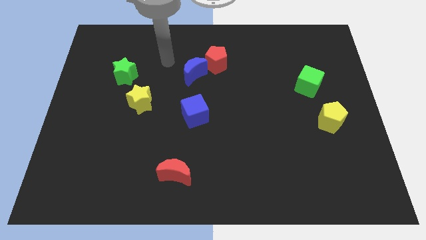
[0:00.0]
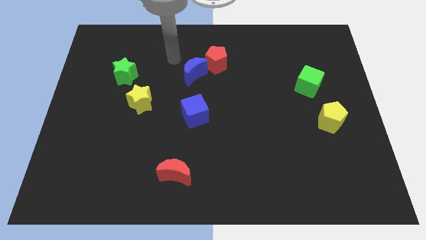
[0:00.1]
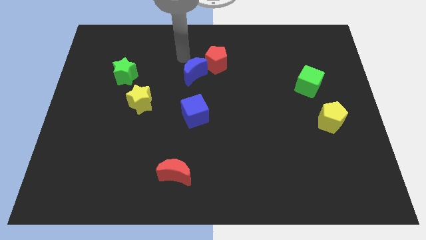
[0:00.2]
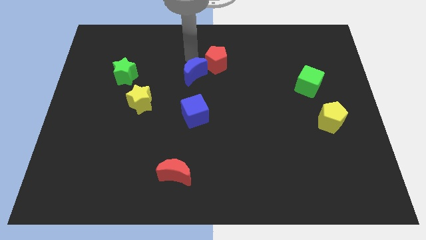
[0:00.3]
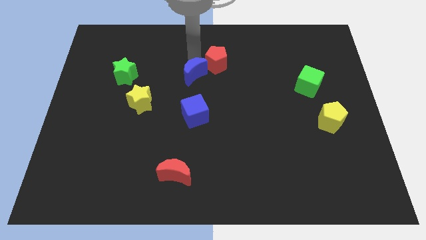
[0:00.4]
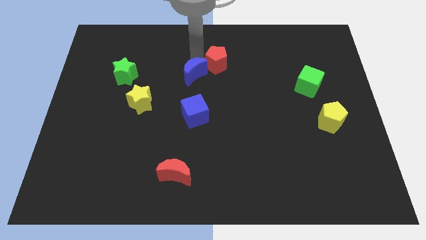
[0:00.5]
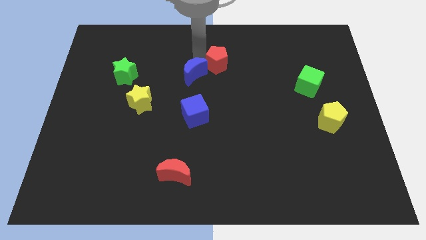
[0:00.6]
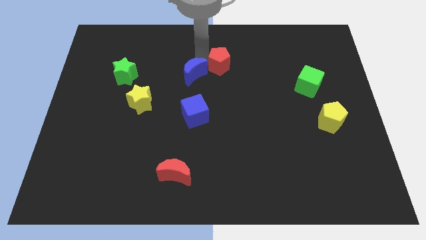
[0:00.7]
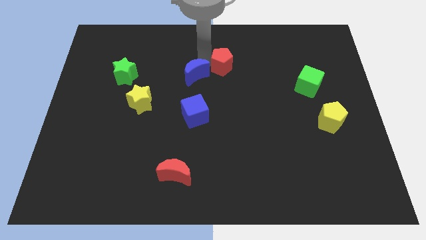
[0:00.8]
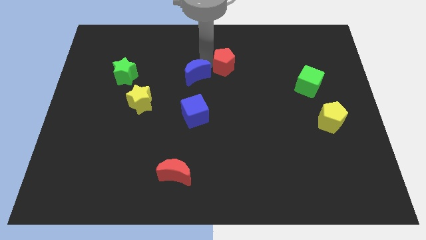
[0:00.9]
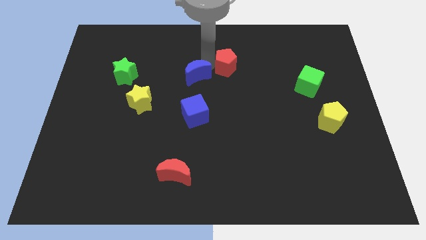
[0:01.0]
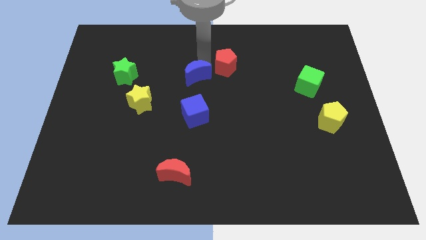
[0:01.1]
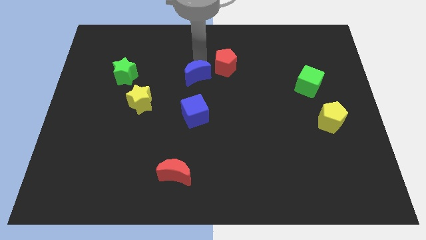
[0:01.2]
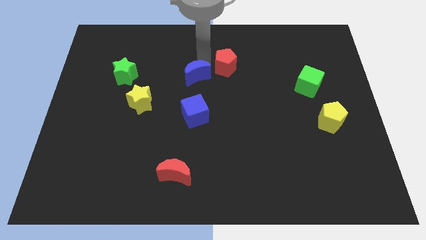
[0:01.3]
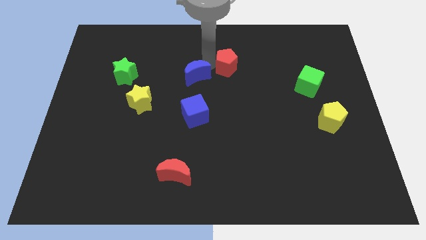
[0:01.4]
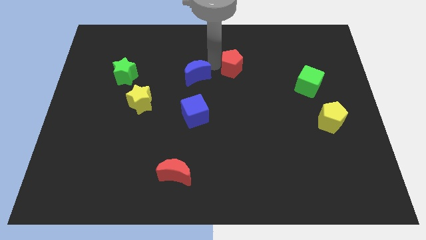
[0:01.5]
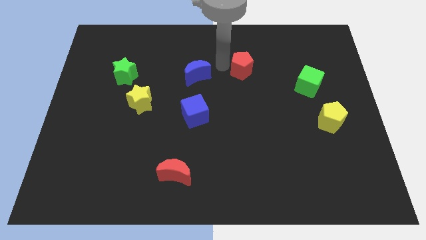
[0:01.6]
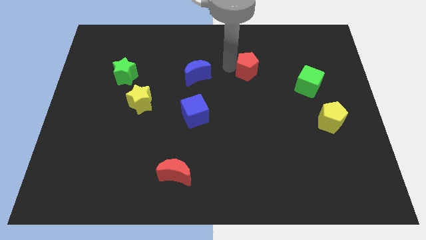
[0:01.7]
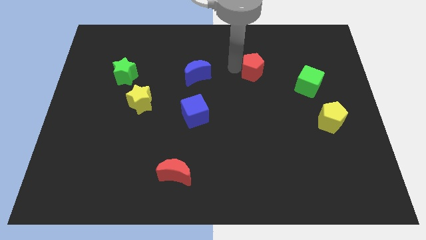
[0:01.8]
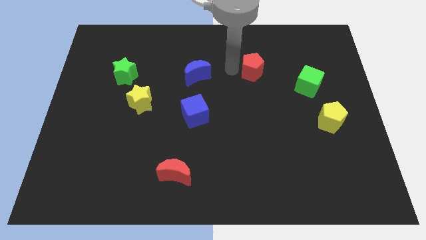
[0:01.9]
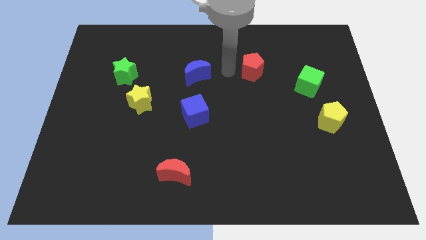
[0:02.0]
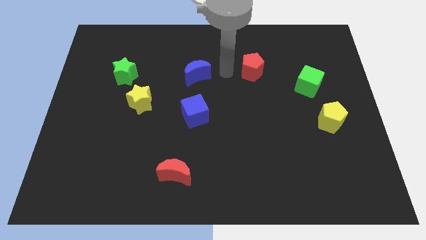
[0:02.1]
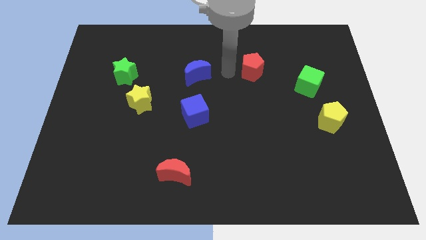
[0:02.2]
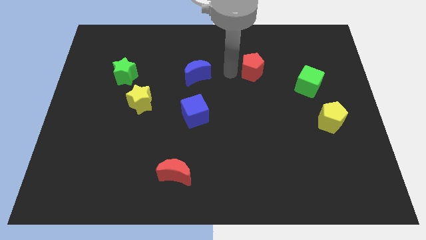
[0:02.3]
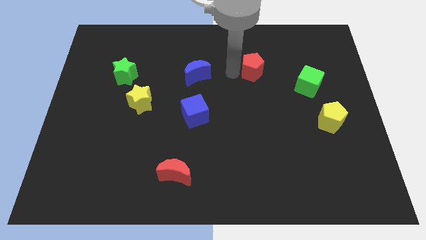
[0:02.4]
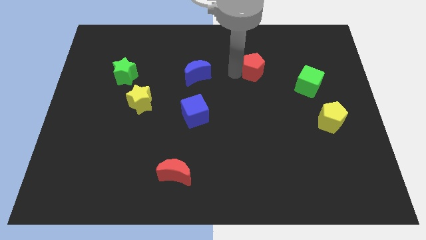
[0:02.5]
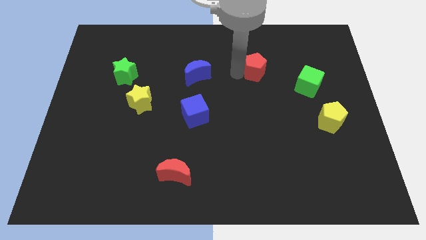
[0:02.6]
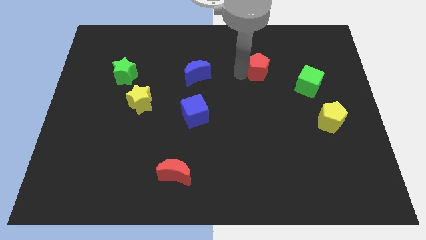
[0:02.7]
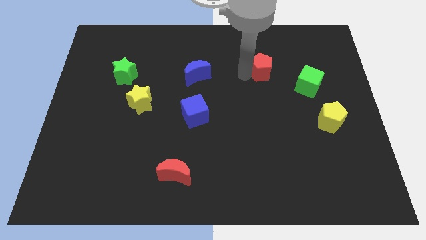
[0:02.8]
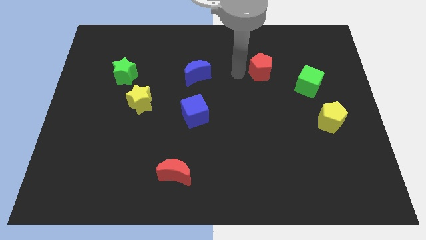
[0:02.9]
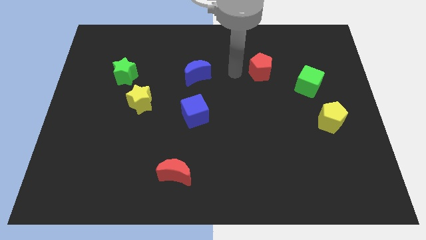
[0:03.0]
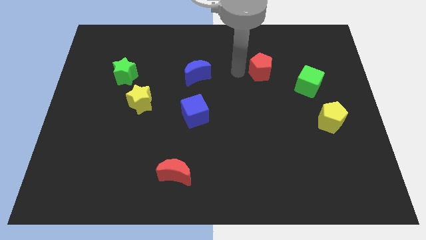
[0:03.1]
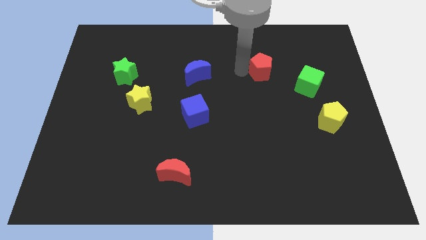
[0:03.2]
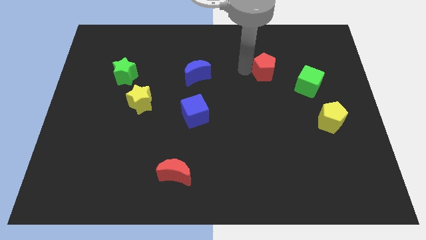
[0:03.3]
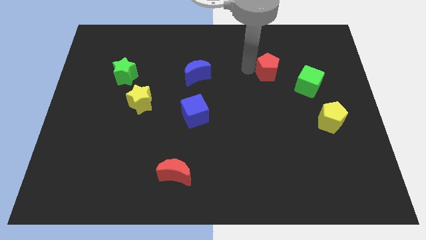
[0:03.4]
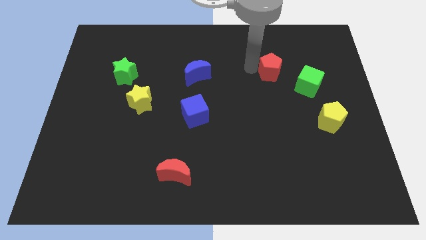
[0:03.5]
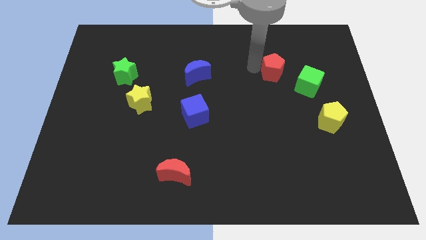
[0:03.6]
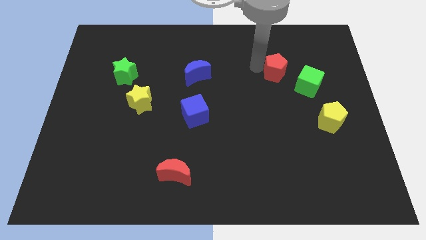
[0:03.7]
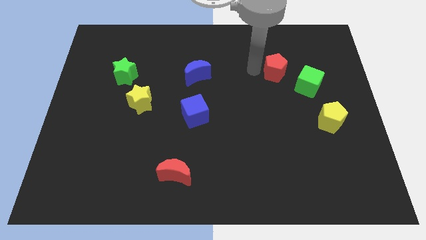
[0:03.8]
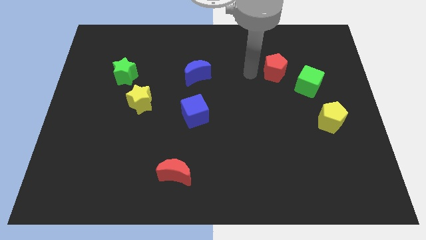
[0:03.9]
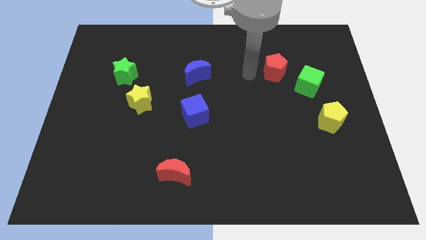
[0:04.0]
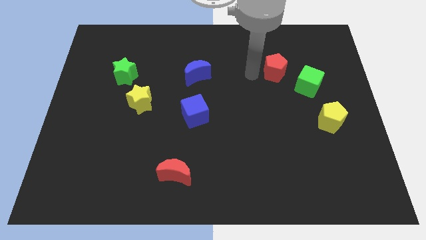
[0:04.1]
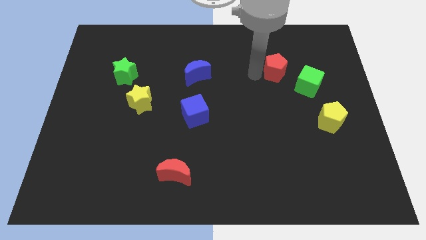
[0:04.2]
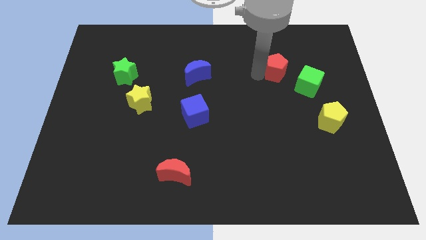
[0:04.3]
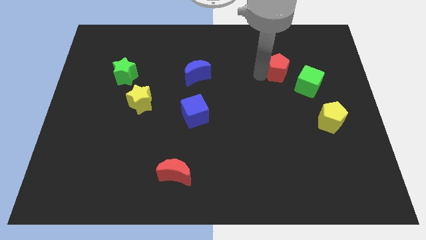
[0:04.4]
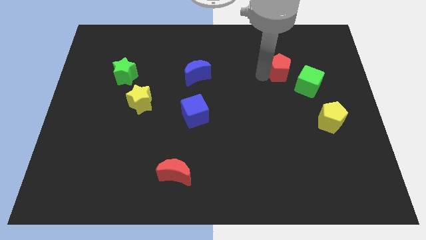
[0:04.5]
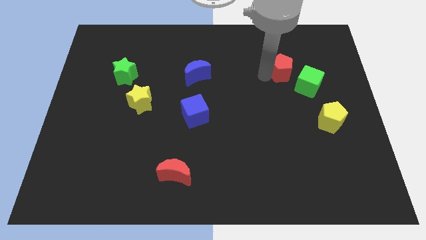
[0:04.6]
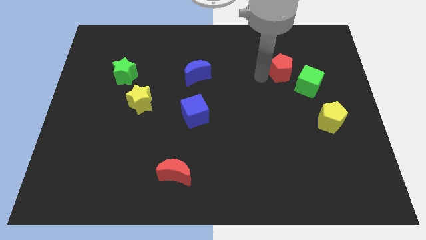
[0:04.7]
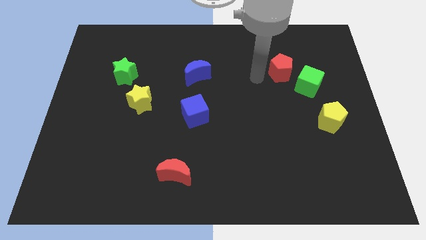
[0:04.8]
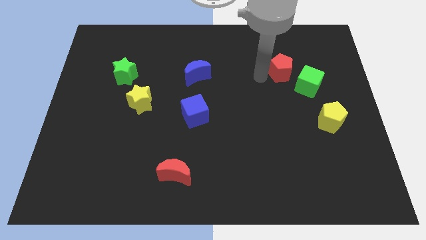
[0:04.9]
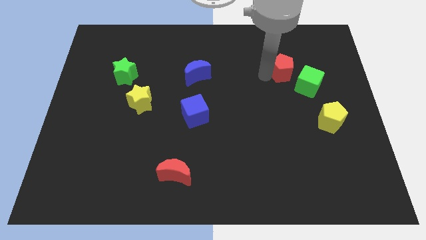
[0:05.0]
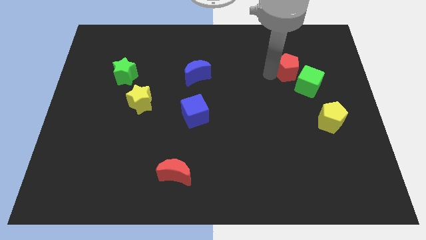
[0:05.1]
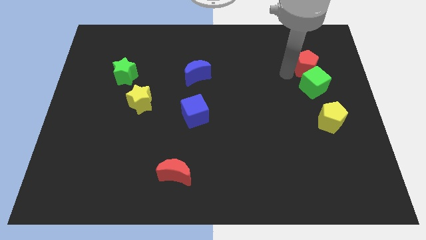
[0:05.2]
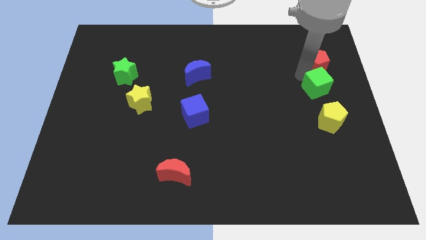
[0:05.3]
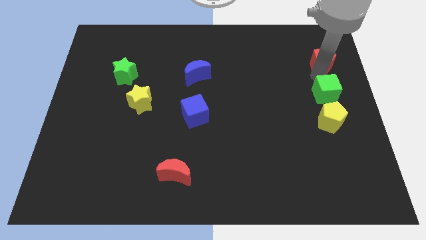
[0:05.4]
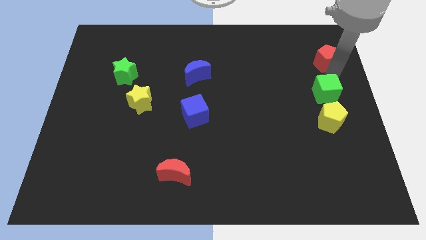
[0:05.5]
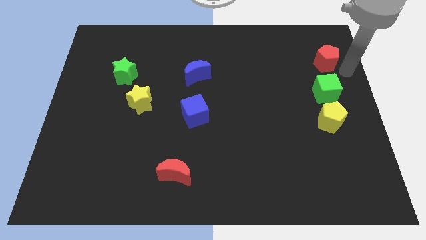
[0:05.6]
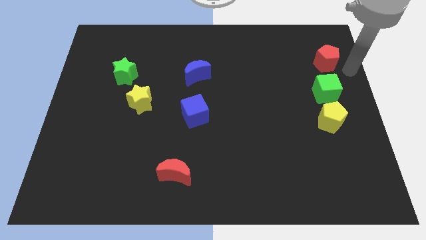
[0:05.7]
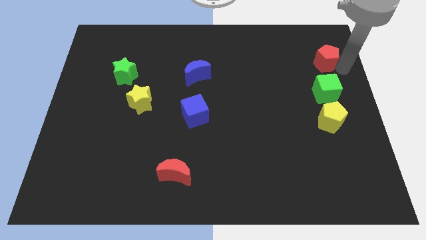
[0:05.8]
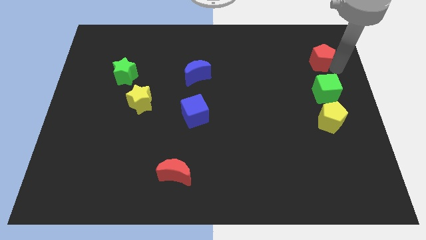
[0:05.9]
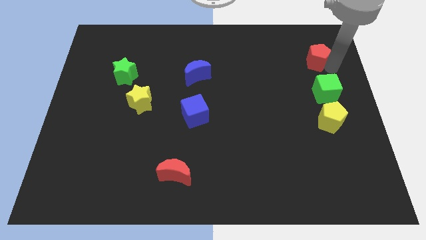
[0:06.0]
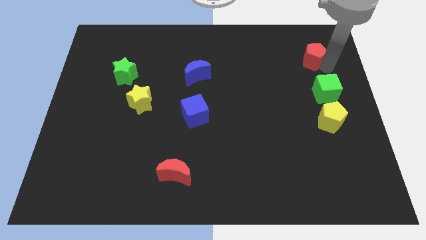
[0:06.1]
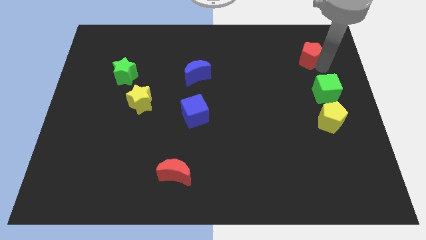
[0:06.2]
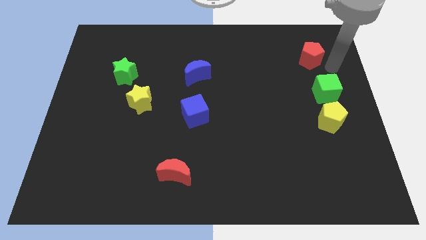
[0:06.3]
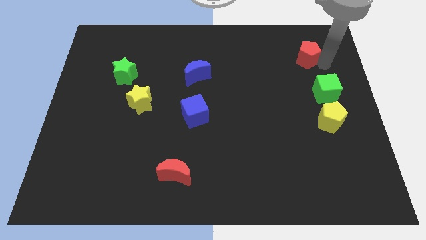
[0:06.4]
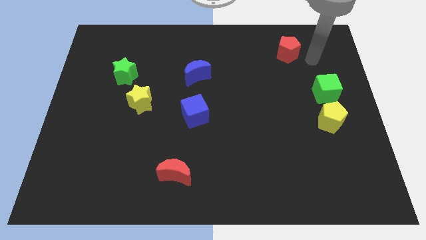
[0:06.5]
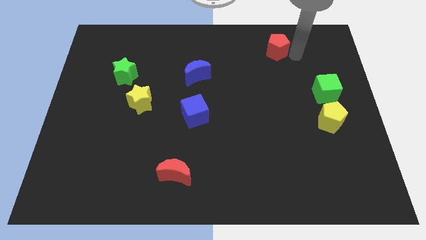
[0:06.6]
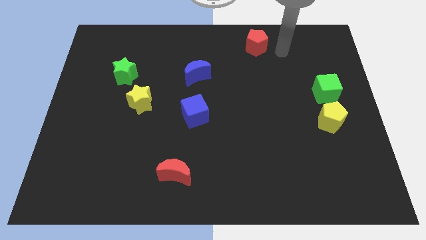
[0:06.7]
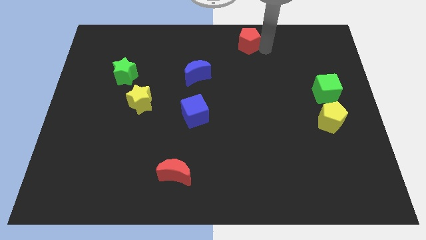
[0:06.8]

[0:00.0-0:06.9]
move the red pentagon to the top

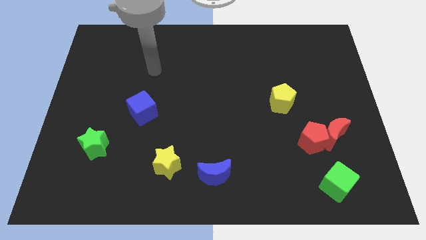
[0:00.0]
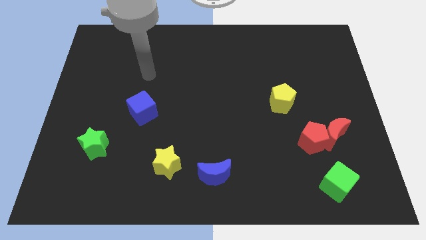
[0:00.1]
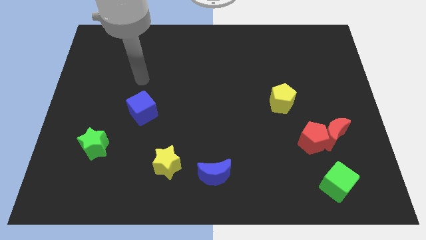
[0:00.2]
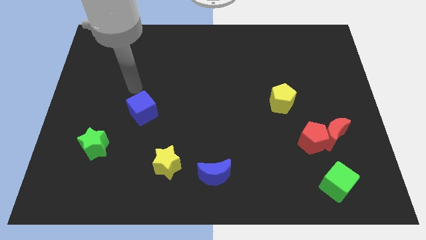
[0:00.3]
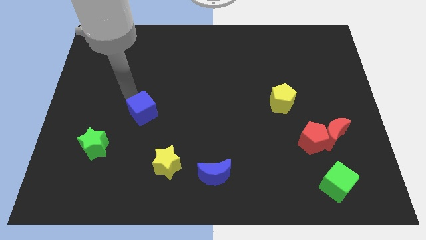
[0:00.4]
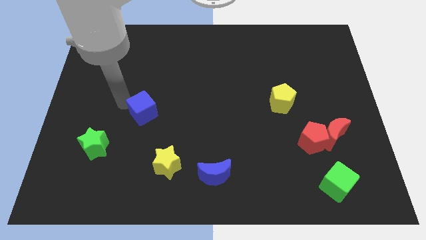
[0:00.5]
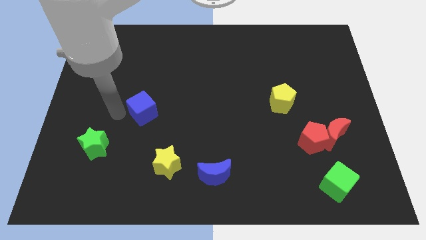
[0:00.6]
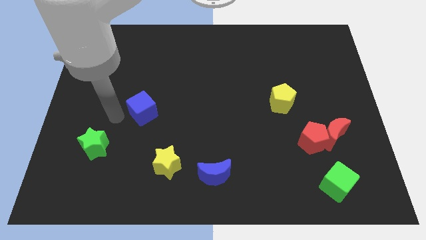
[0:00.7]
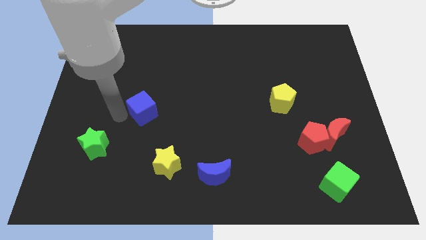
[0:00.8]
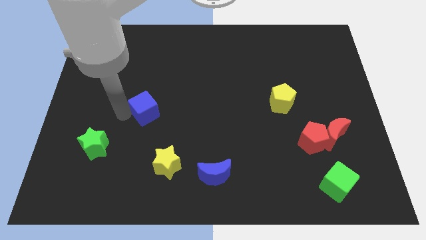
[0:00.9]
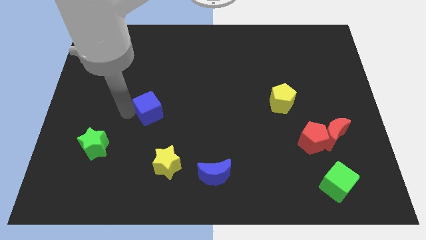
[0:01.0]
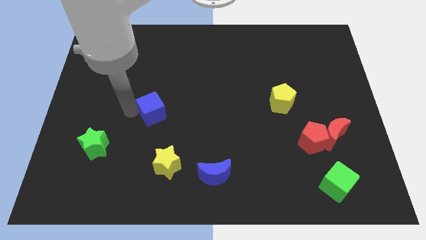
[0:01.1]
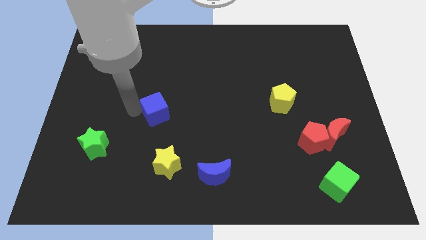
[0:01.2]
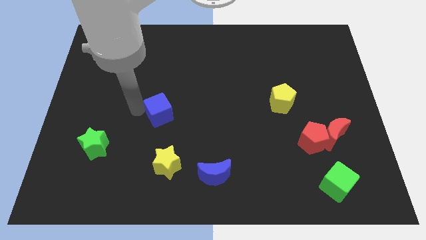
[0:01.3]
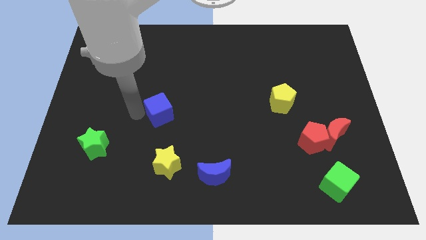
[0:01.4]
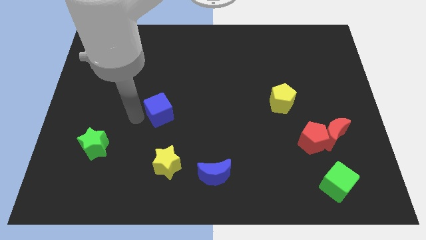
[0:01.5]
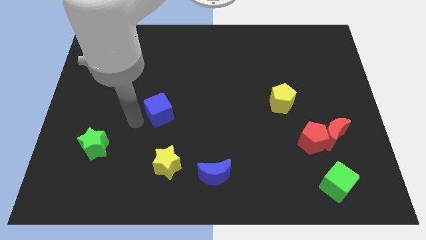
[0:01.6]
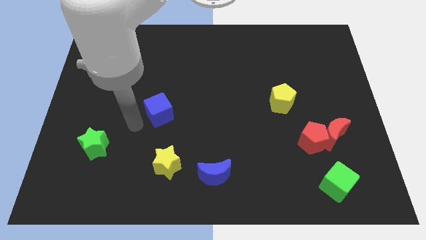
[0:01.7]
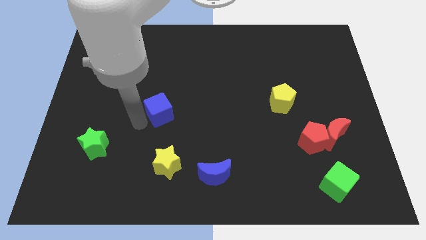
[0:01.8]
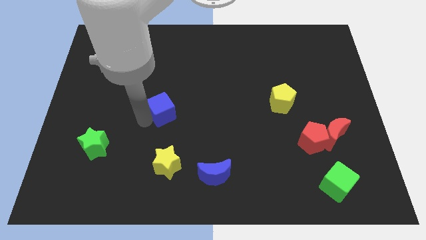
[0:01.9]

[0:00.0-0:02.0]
push the blue cube to the center of the board
